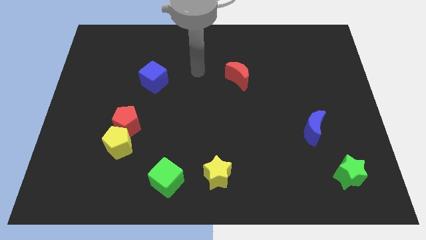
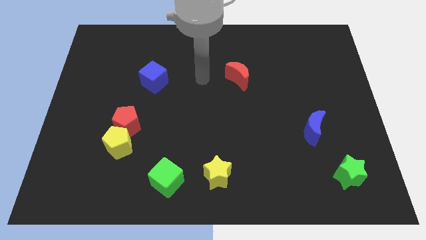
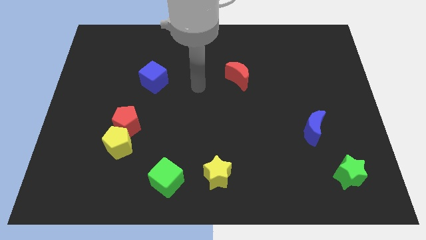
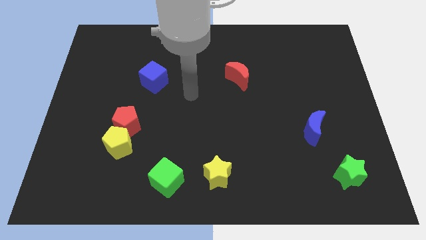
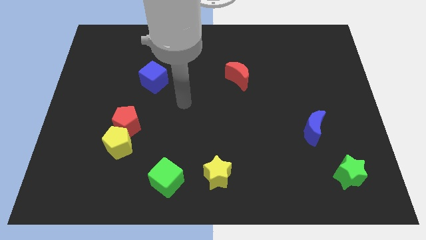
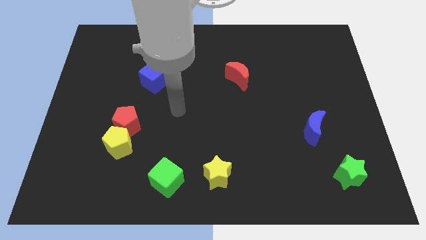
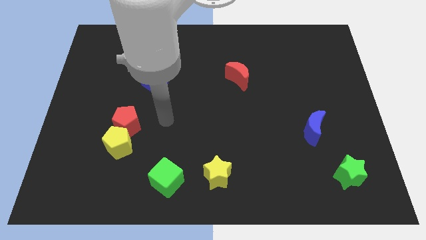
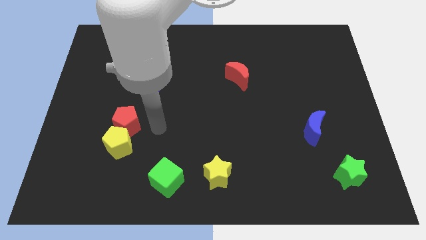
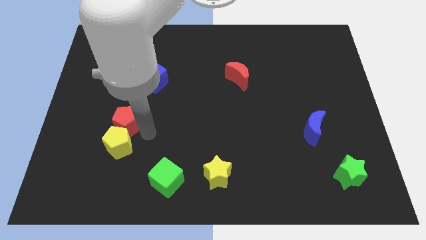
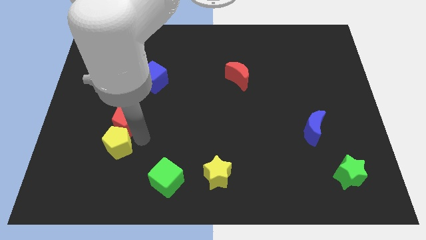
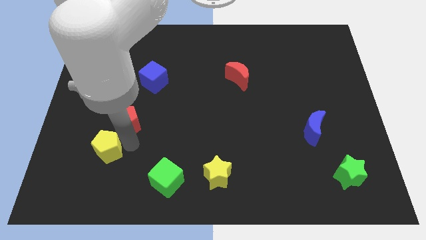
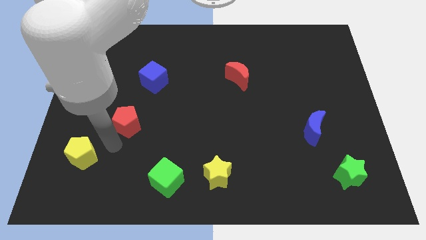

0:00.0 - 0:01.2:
pull the red pentagon apart from the yellow pentagon

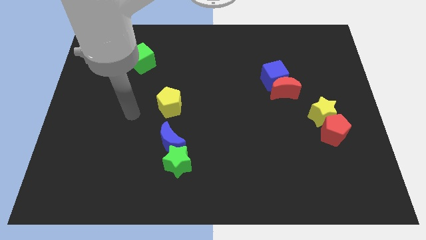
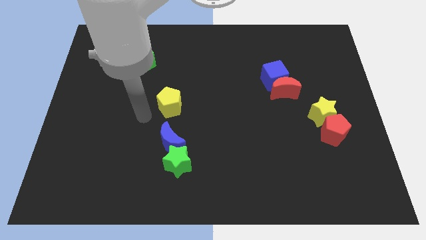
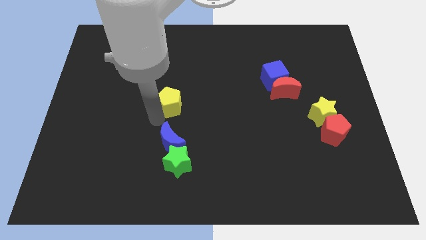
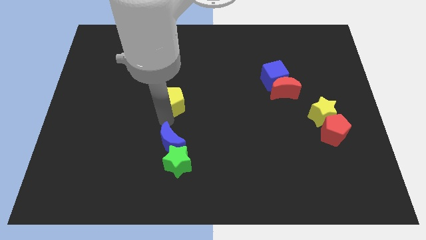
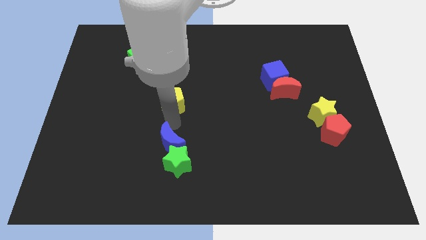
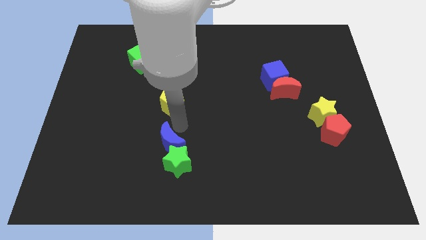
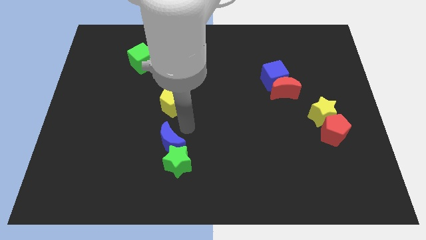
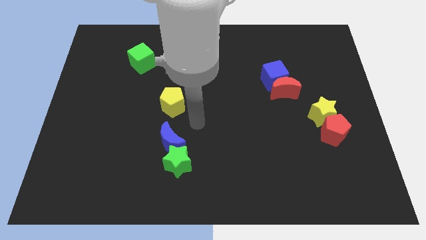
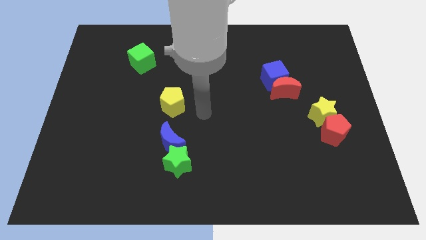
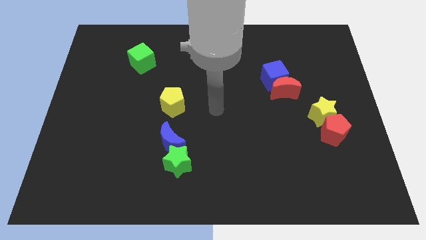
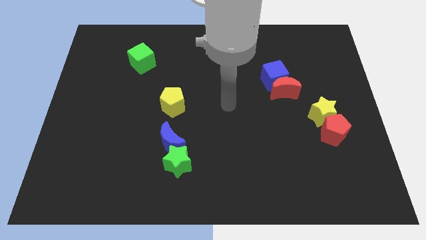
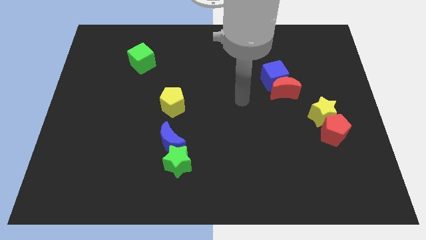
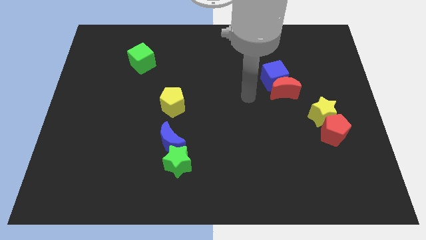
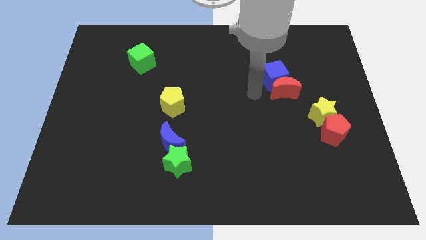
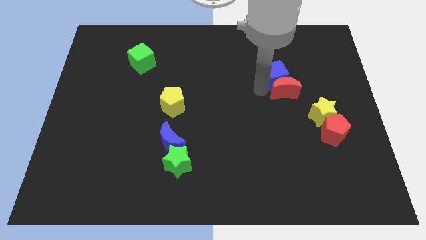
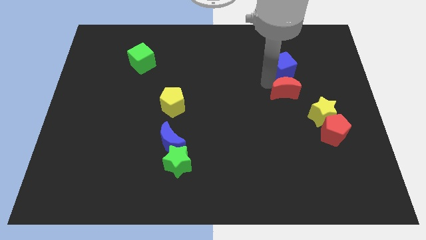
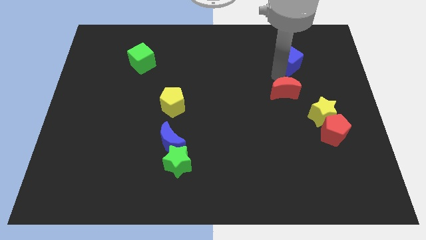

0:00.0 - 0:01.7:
pull the red moon apart from the blue cube

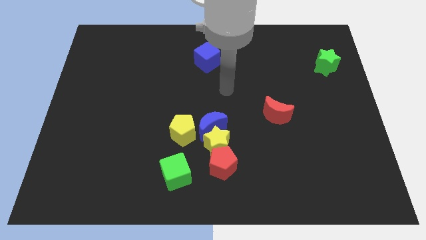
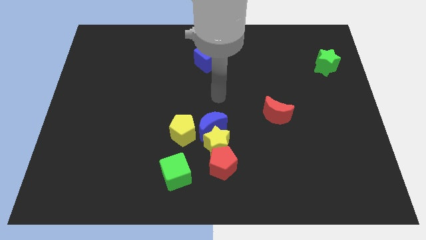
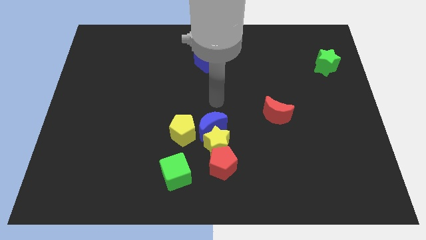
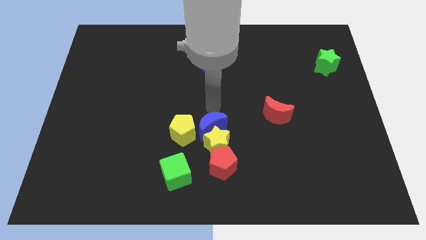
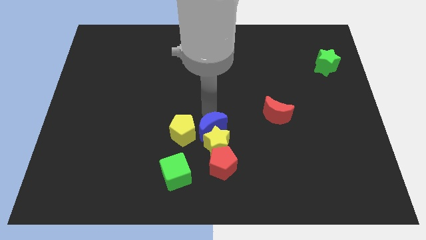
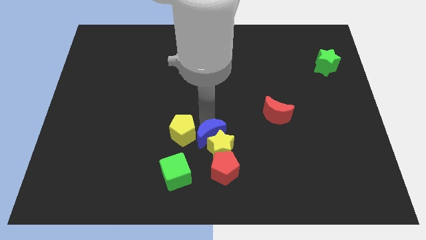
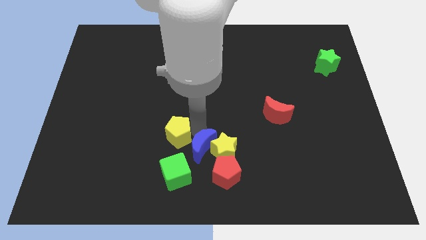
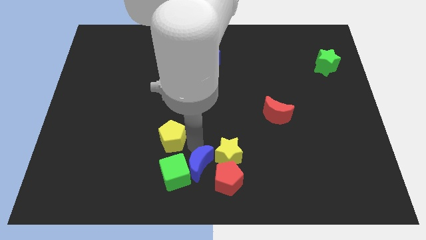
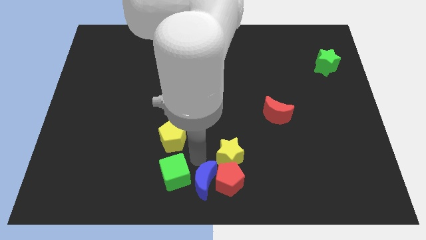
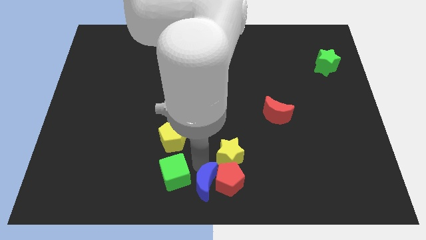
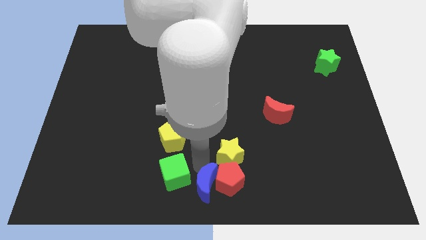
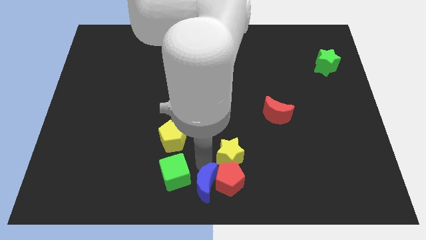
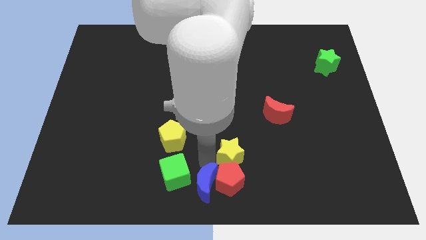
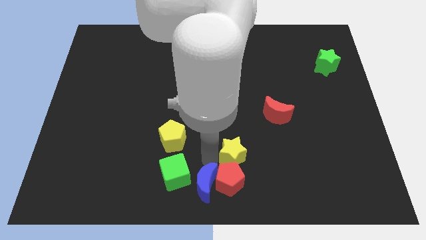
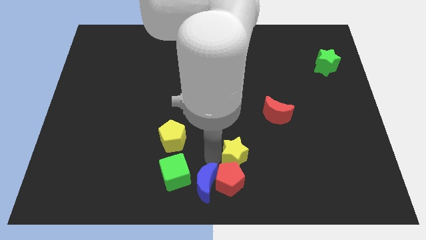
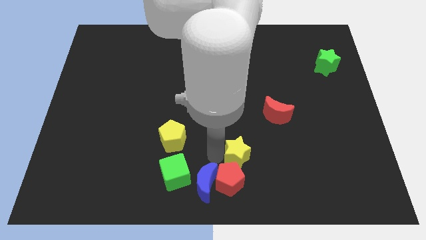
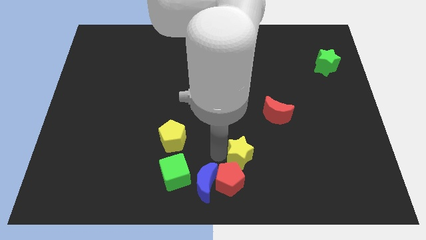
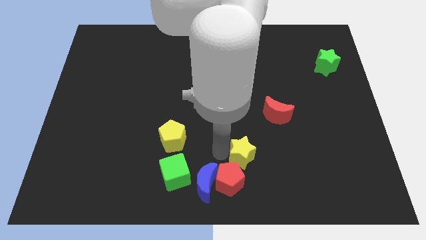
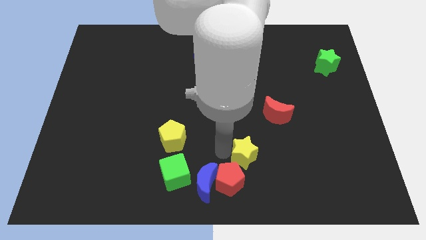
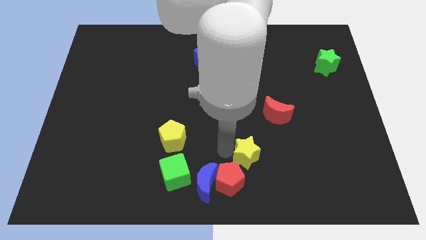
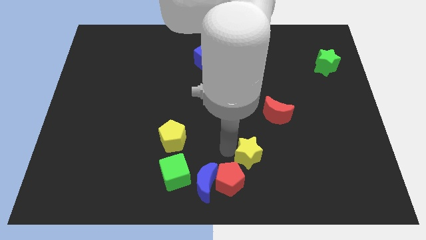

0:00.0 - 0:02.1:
separate the yellow star from the blue moon, red pentagon, and yellow pentagon

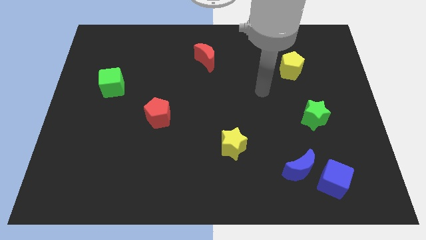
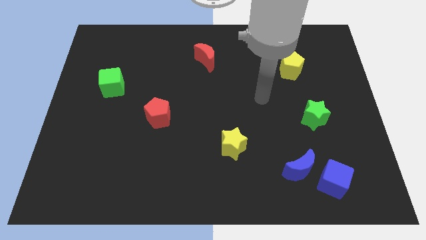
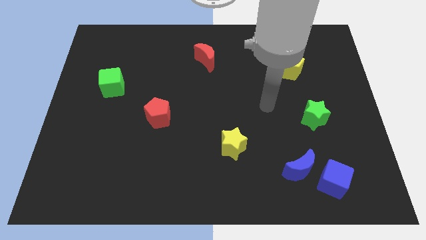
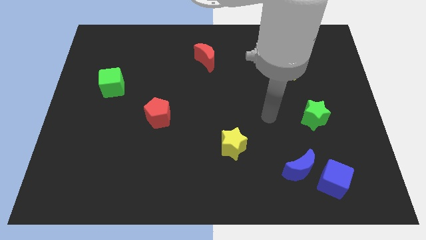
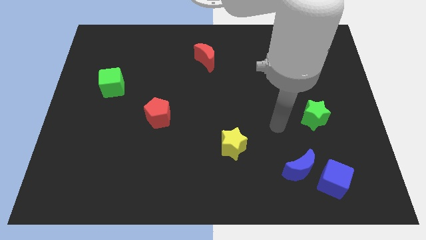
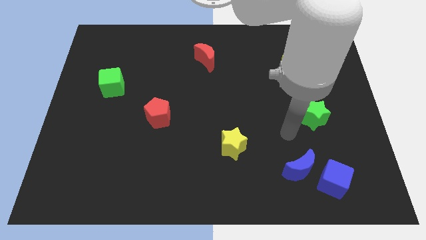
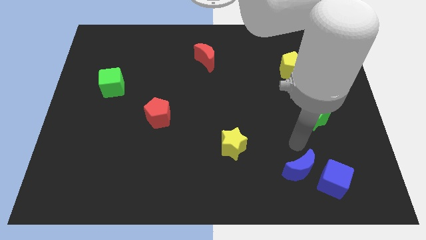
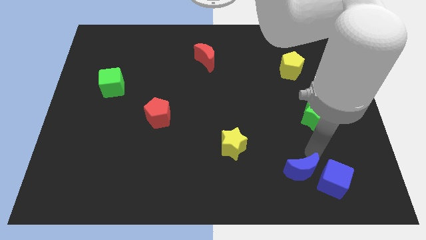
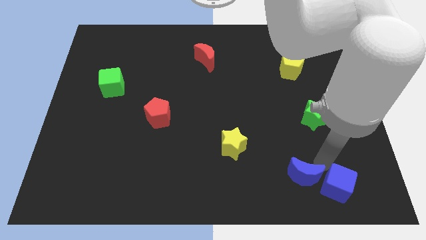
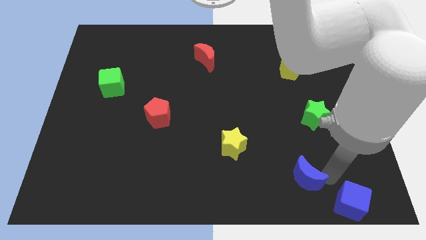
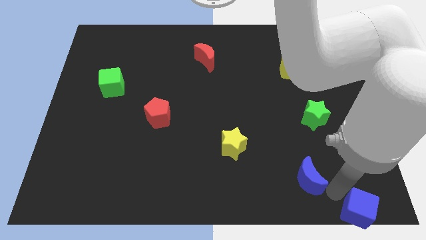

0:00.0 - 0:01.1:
move the blue moon away from the blue cube

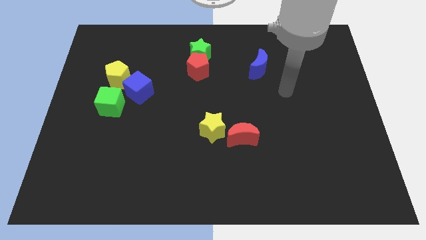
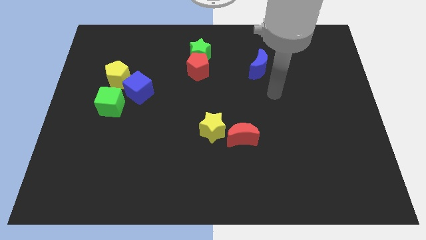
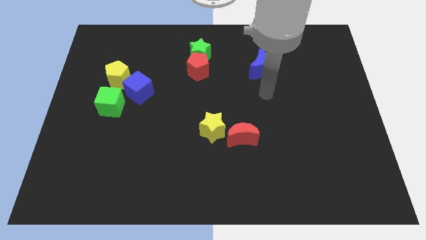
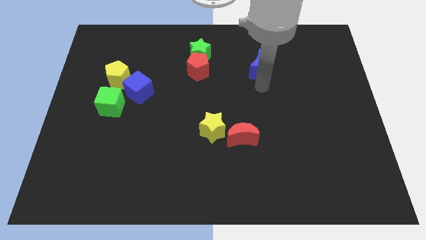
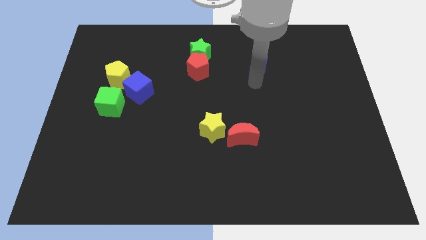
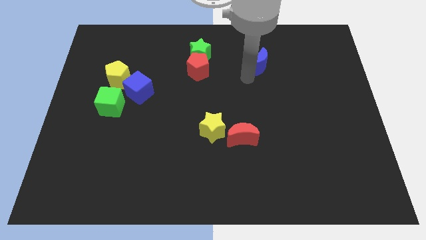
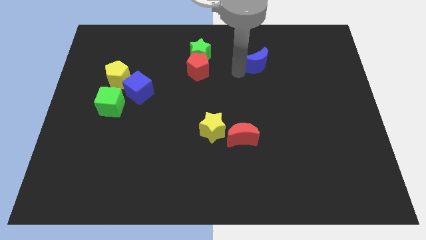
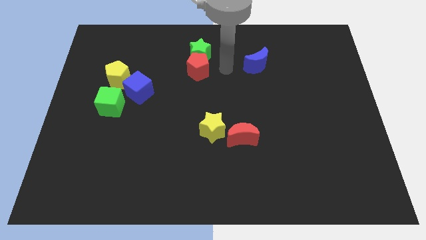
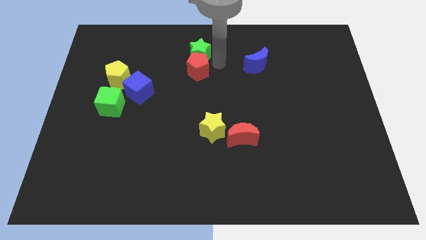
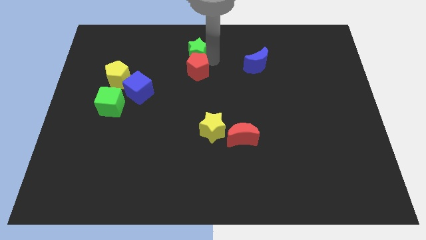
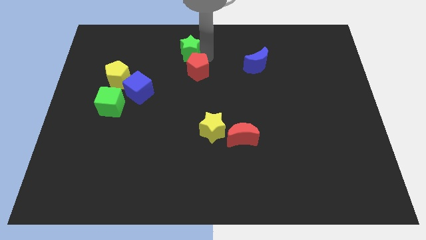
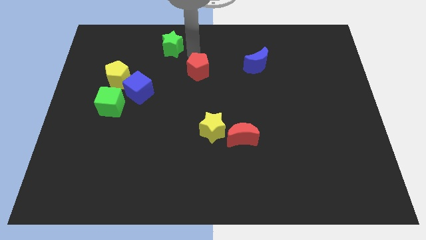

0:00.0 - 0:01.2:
move the red pentagon away from the green star

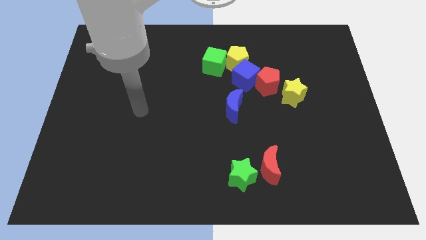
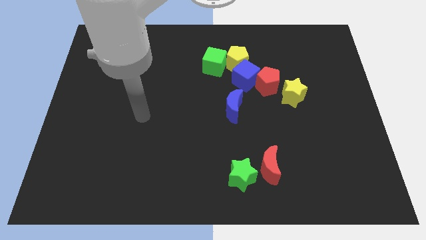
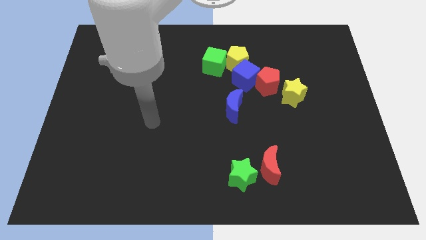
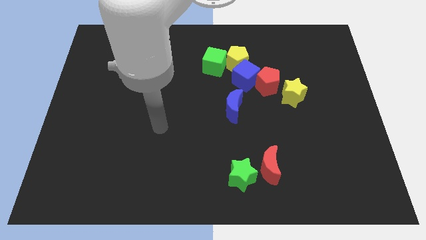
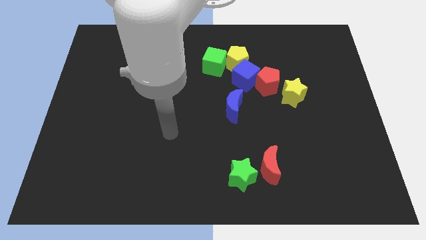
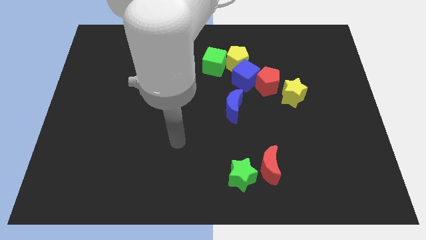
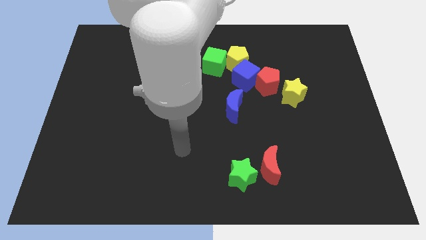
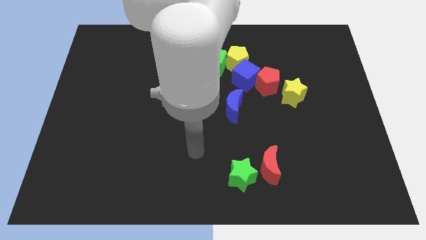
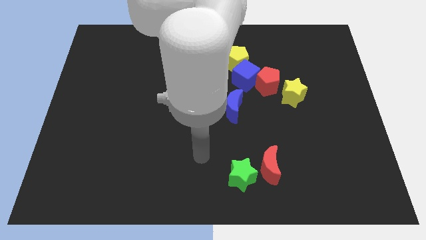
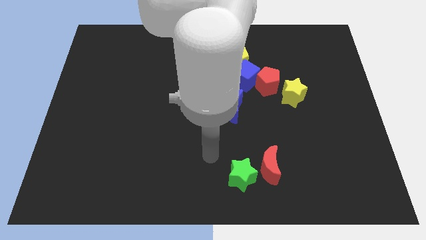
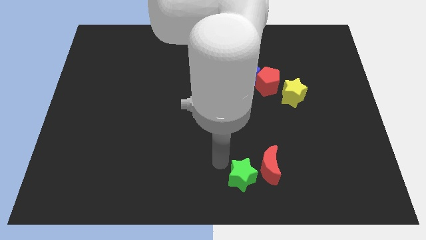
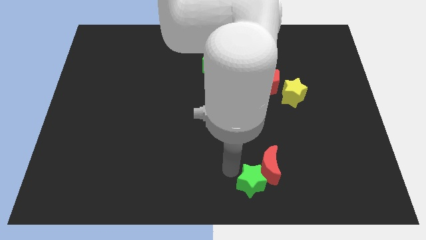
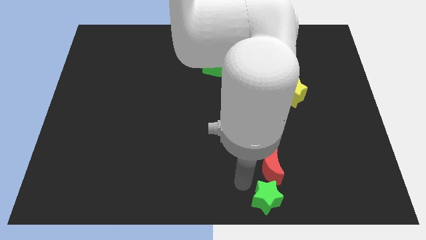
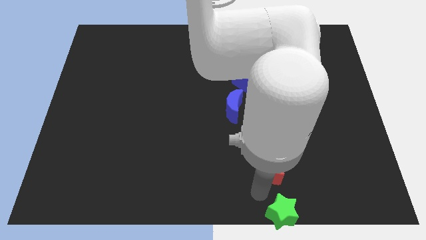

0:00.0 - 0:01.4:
pull the red moon apart from the green star

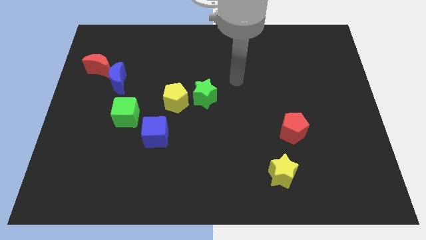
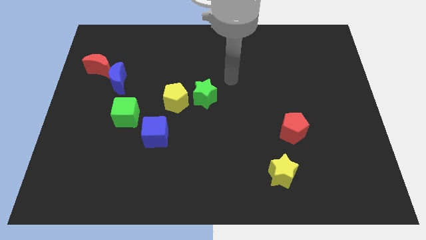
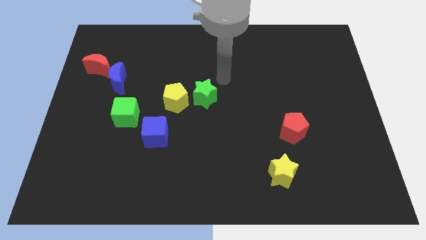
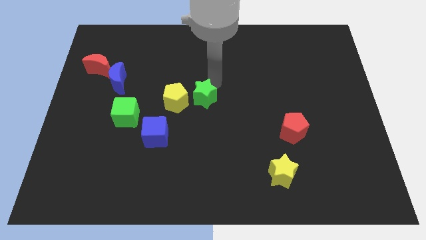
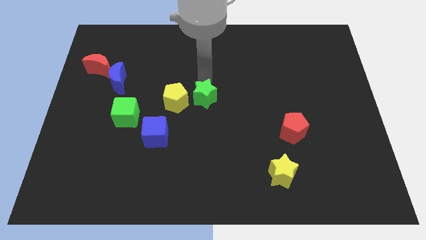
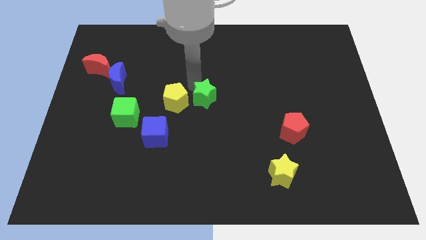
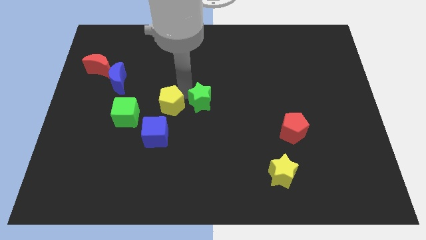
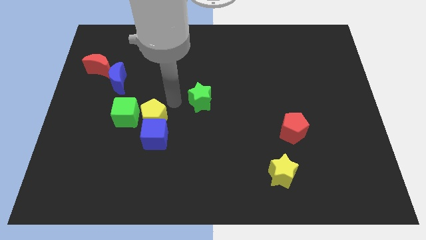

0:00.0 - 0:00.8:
move the green star away from the yellow pentagon

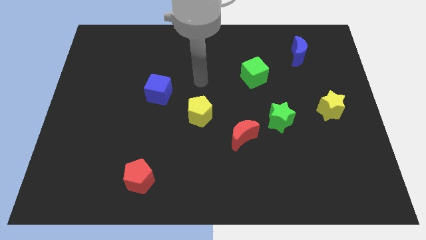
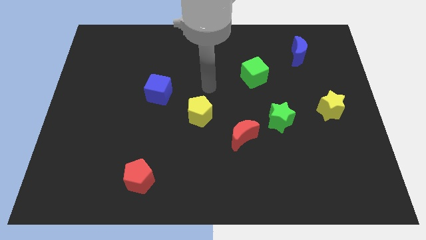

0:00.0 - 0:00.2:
move the red moon away from the green star
